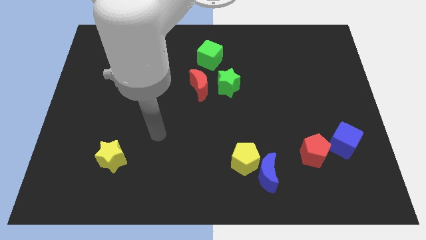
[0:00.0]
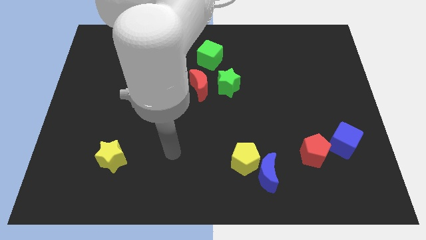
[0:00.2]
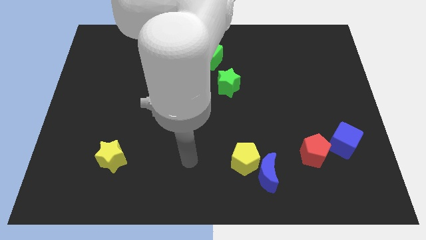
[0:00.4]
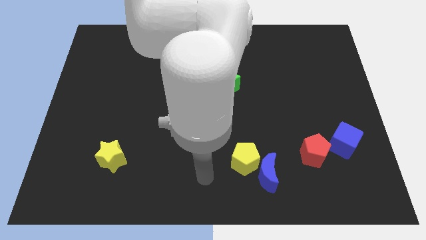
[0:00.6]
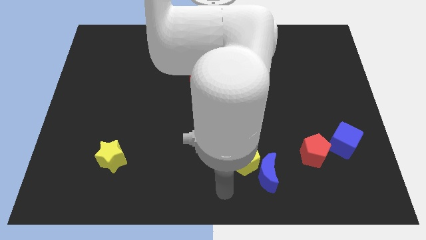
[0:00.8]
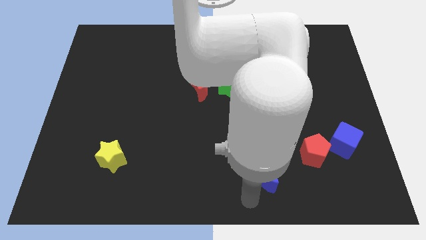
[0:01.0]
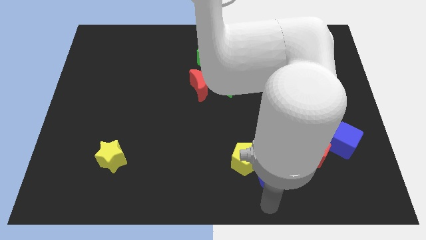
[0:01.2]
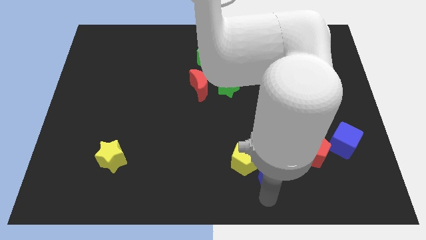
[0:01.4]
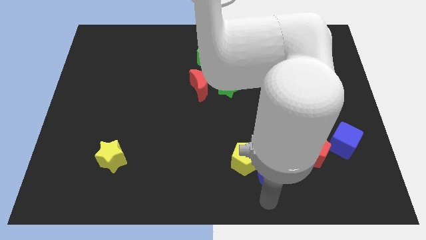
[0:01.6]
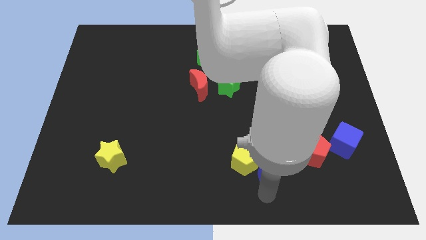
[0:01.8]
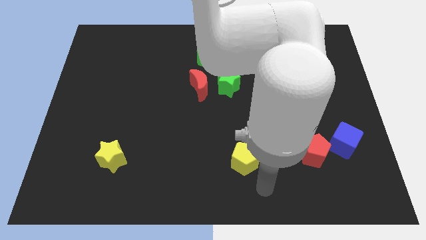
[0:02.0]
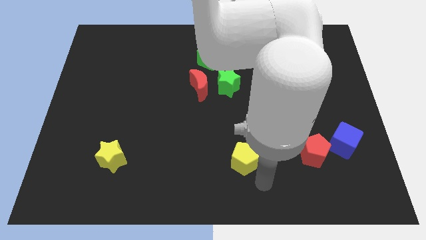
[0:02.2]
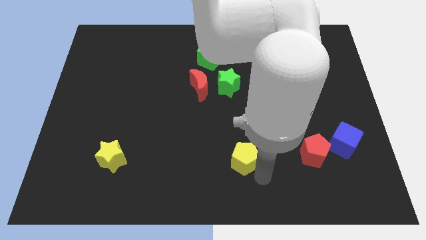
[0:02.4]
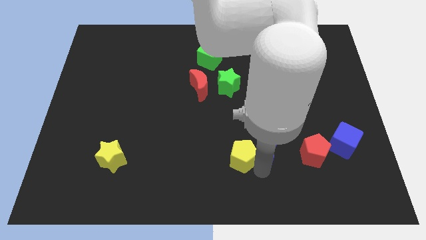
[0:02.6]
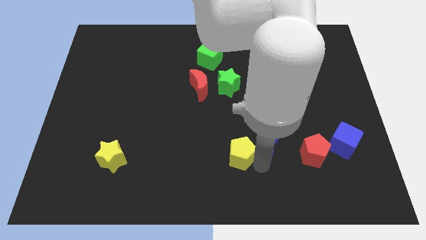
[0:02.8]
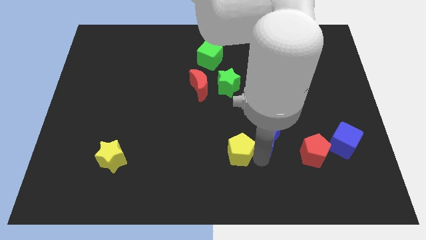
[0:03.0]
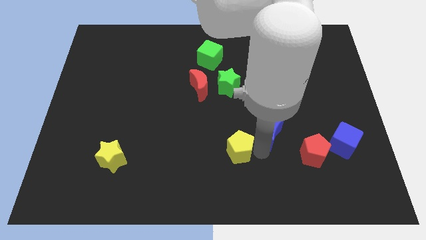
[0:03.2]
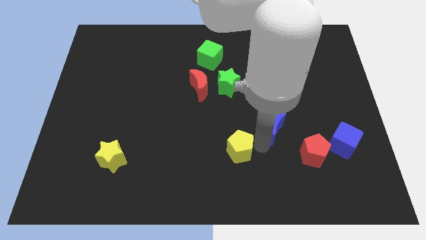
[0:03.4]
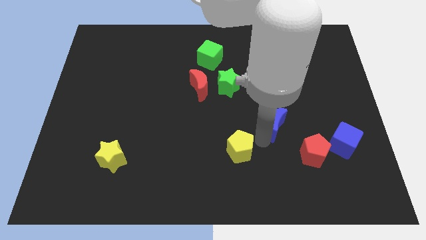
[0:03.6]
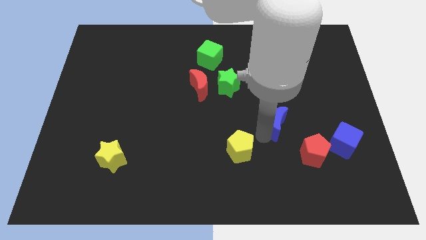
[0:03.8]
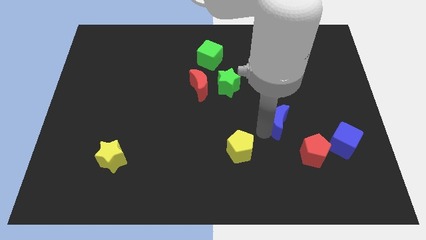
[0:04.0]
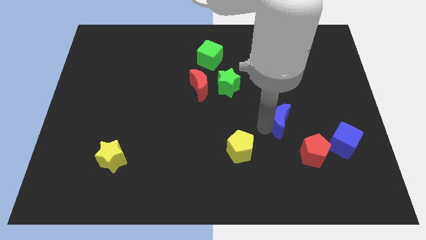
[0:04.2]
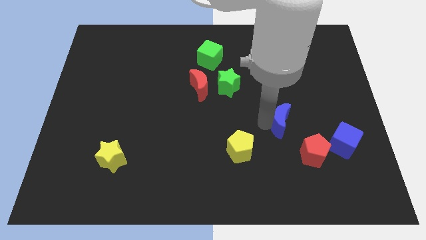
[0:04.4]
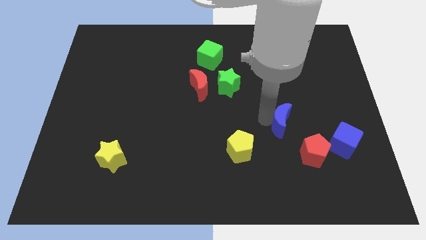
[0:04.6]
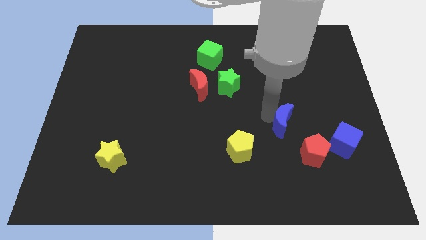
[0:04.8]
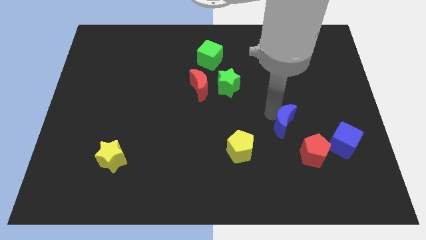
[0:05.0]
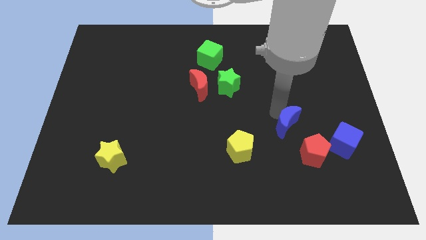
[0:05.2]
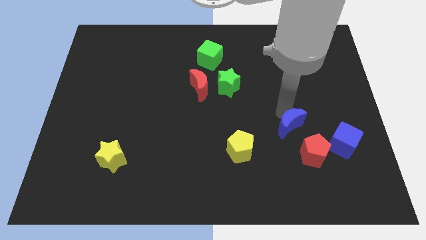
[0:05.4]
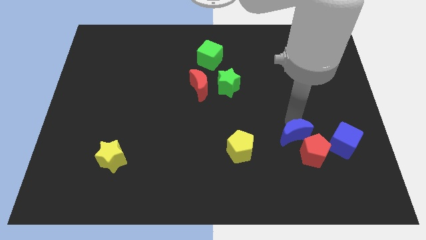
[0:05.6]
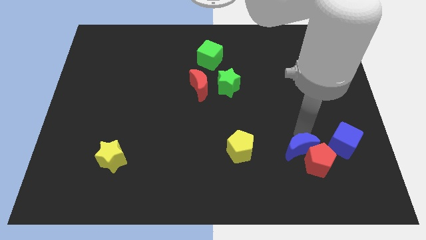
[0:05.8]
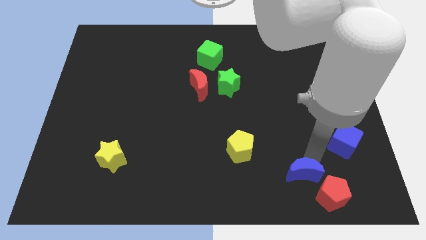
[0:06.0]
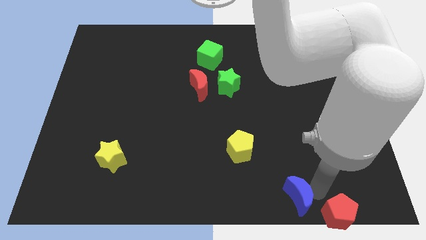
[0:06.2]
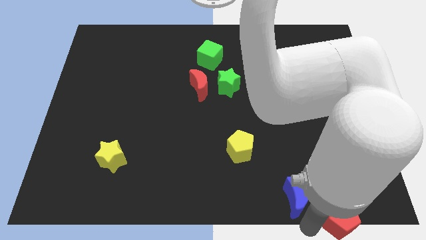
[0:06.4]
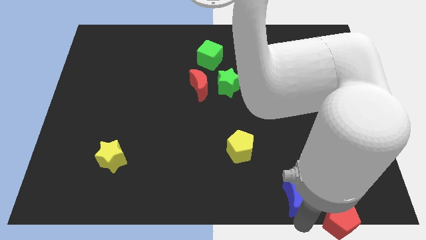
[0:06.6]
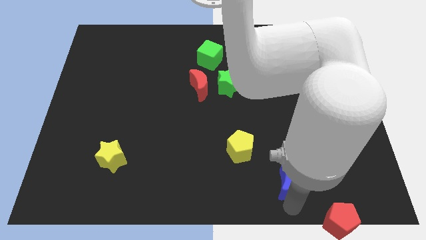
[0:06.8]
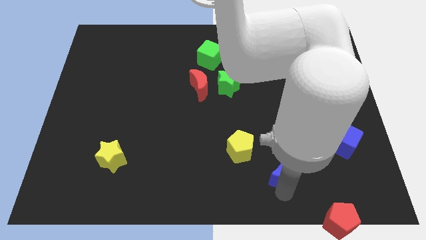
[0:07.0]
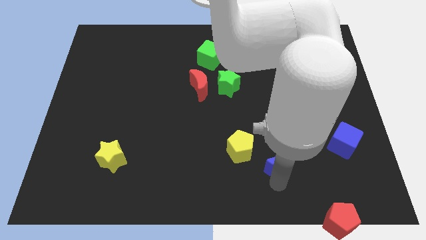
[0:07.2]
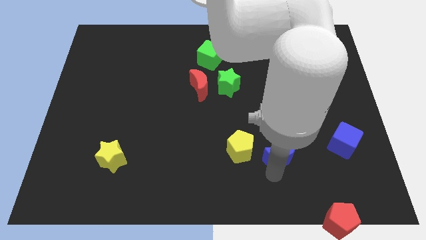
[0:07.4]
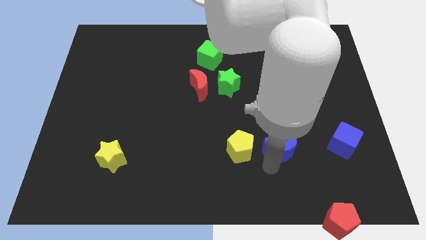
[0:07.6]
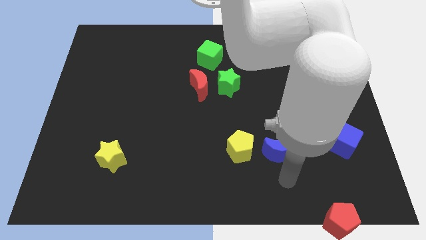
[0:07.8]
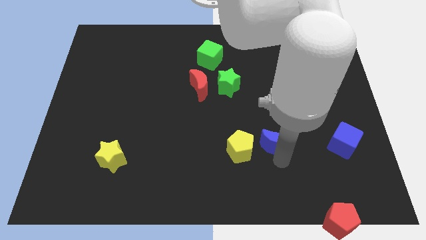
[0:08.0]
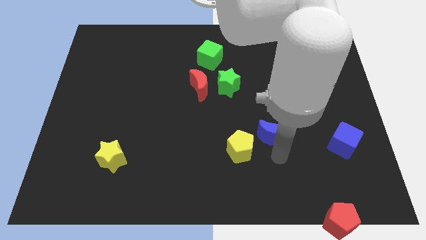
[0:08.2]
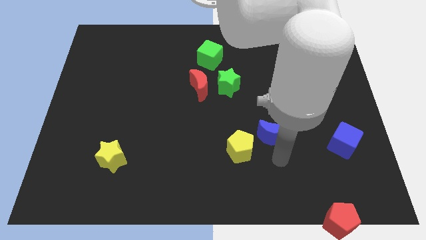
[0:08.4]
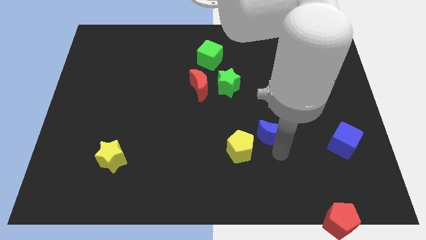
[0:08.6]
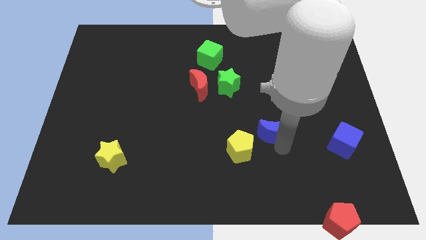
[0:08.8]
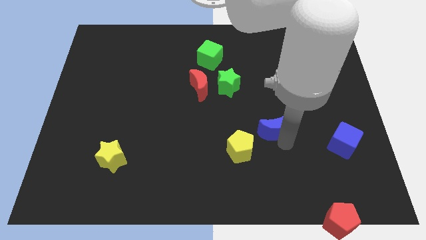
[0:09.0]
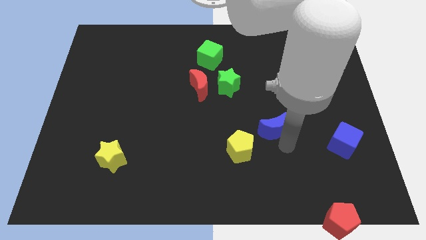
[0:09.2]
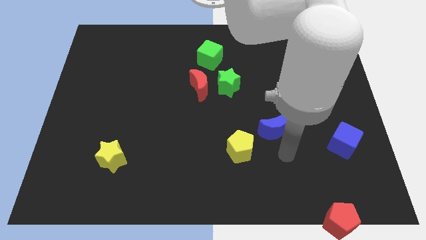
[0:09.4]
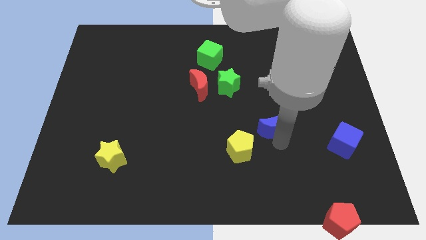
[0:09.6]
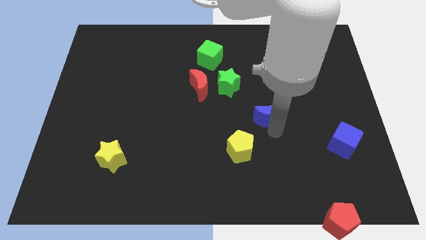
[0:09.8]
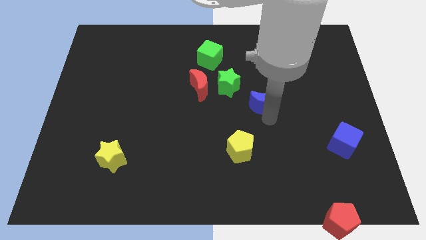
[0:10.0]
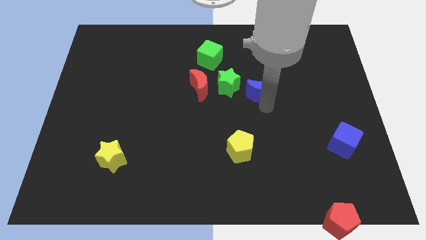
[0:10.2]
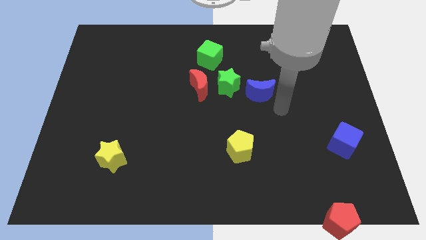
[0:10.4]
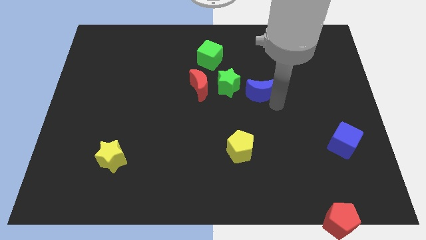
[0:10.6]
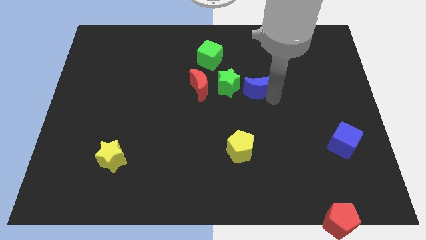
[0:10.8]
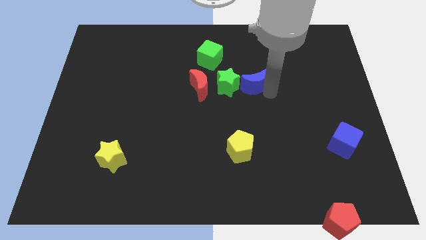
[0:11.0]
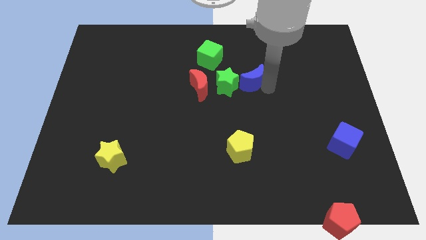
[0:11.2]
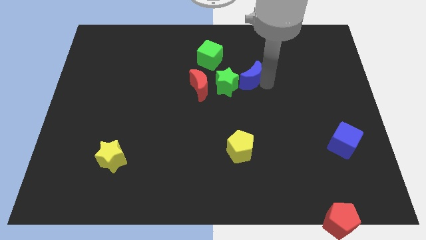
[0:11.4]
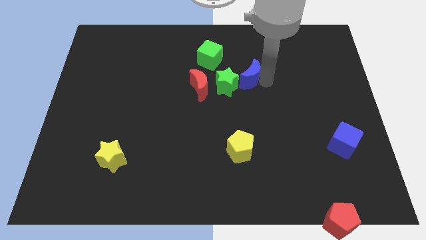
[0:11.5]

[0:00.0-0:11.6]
put the blue moon to the bottom right of the green cube

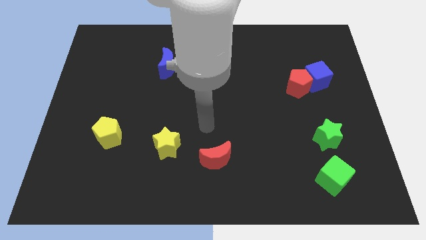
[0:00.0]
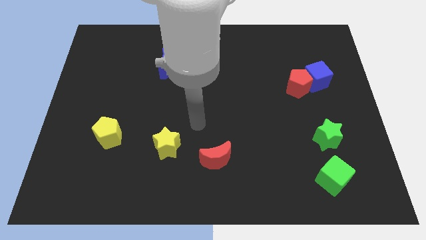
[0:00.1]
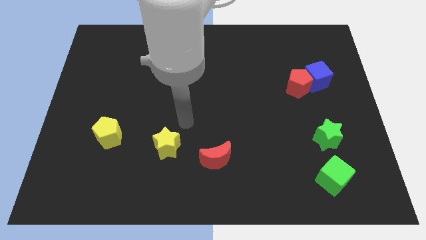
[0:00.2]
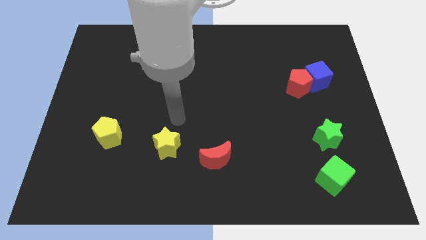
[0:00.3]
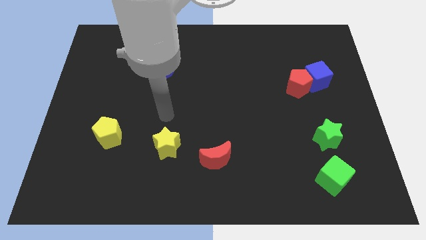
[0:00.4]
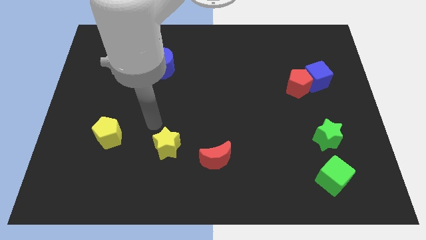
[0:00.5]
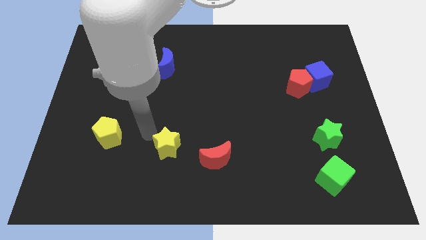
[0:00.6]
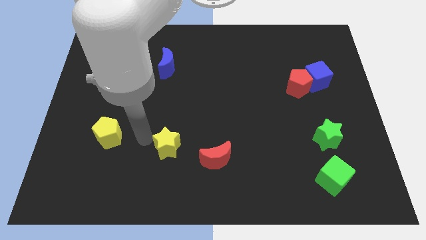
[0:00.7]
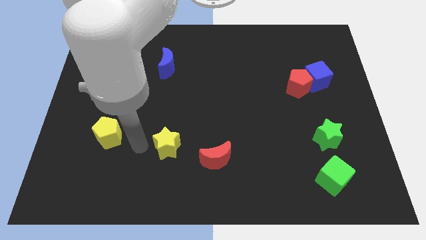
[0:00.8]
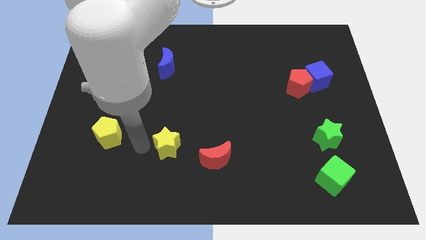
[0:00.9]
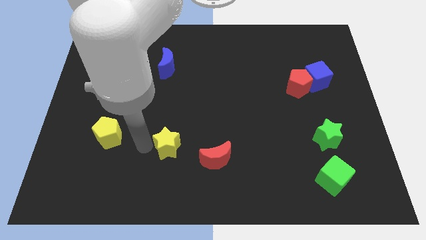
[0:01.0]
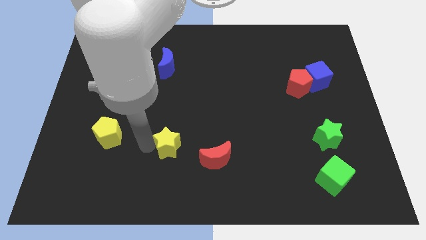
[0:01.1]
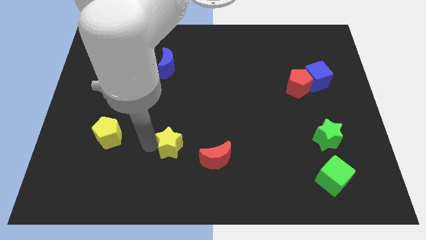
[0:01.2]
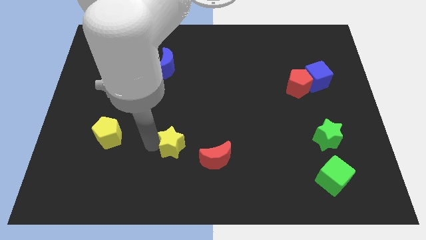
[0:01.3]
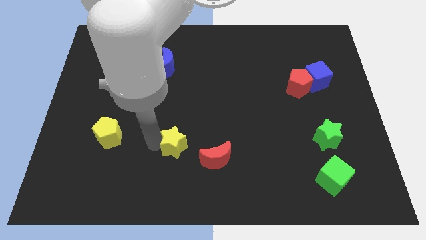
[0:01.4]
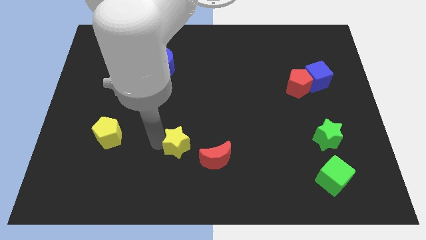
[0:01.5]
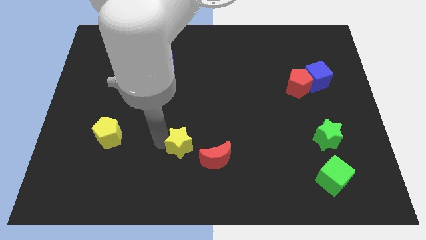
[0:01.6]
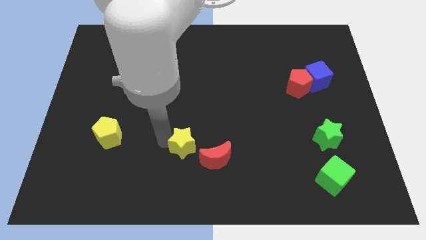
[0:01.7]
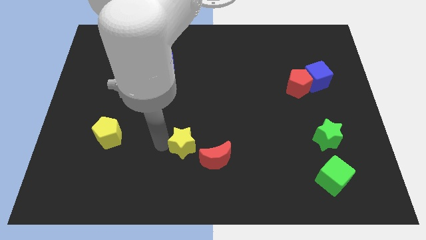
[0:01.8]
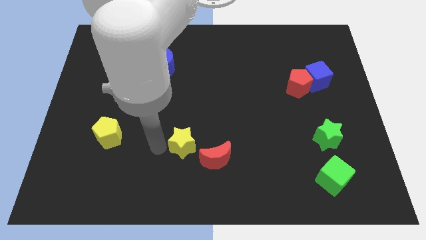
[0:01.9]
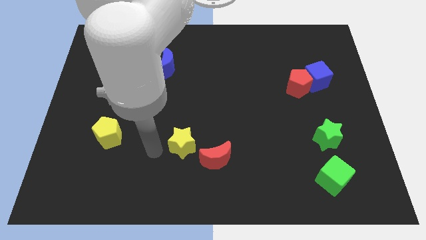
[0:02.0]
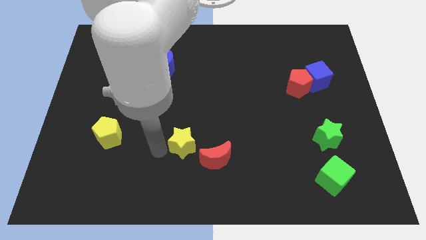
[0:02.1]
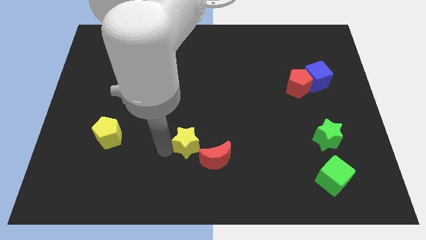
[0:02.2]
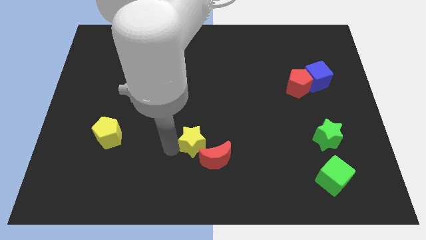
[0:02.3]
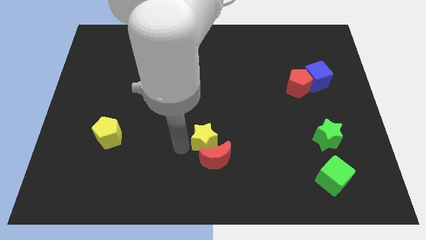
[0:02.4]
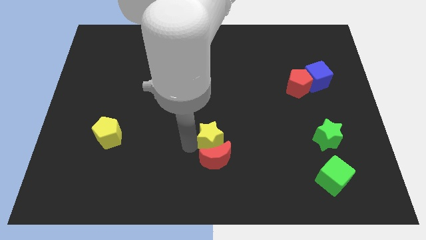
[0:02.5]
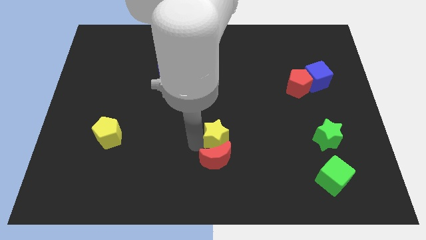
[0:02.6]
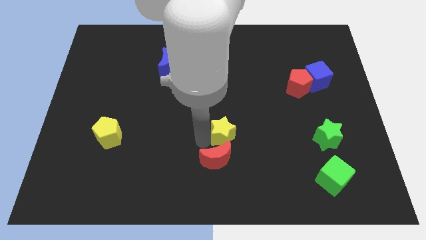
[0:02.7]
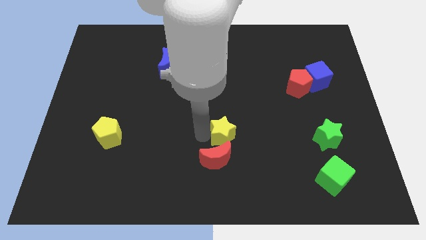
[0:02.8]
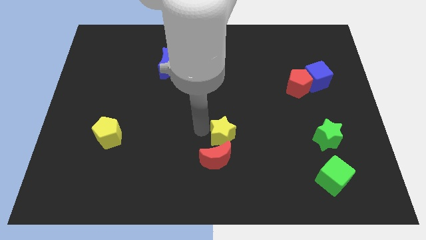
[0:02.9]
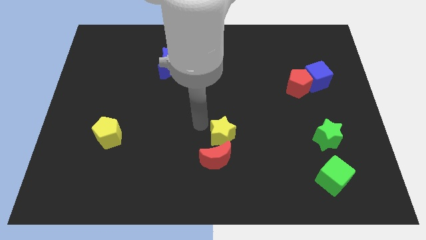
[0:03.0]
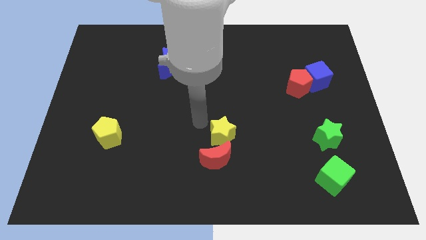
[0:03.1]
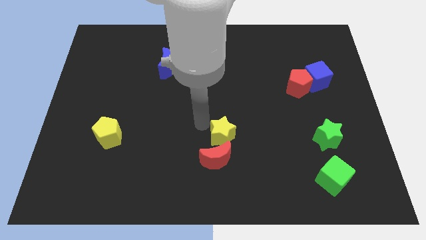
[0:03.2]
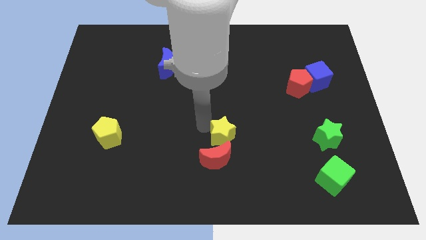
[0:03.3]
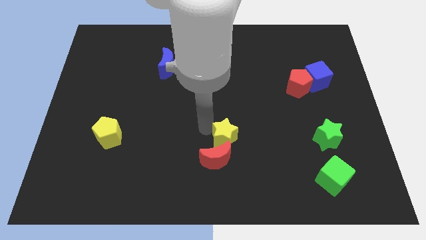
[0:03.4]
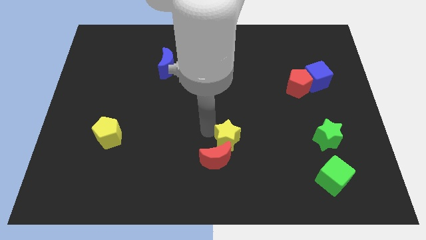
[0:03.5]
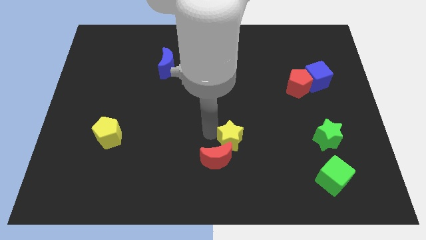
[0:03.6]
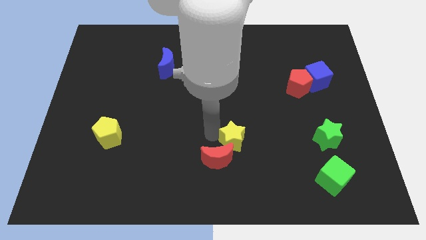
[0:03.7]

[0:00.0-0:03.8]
move the yellow star to the right side of the red moon
